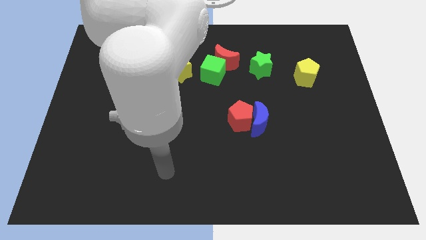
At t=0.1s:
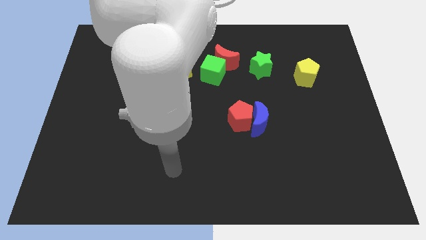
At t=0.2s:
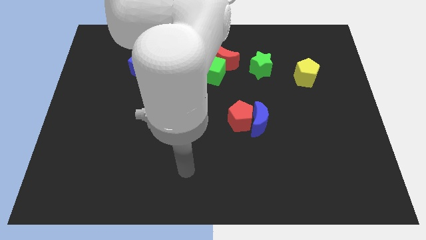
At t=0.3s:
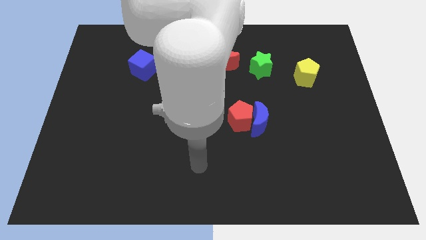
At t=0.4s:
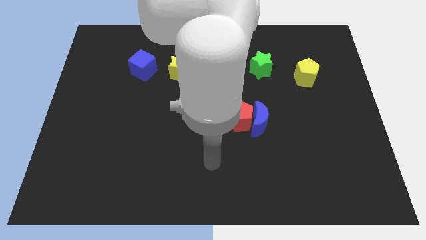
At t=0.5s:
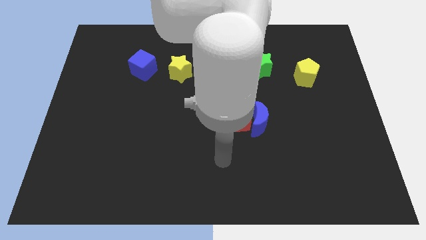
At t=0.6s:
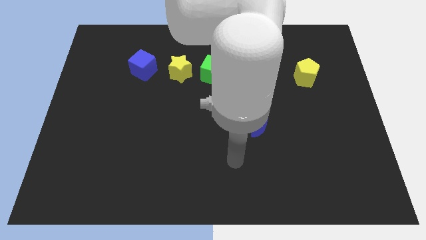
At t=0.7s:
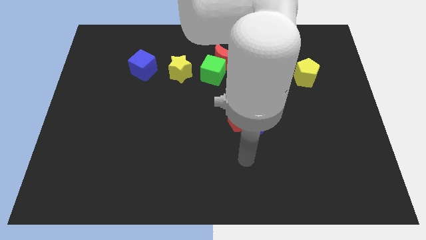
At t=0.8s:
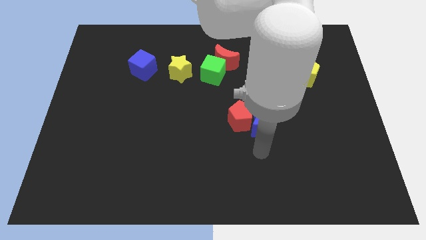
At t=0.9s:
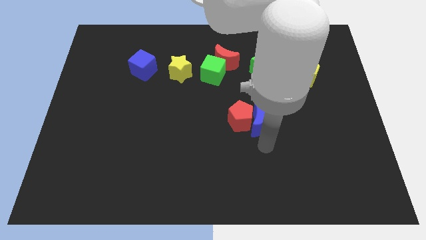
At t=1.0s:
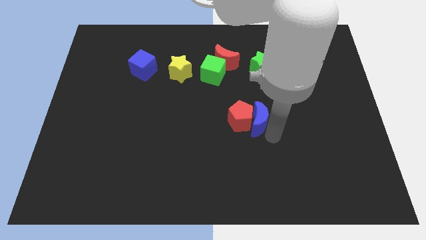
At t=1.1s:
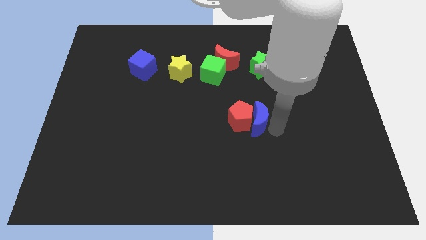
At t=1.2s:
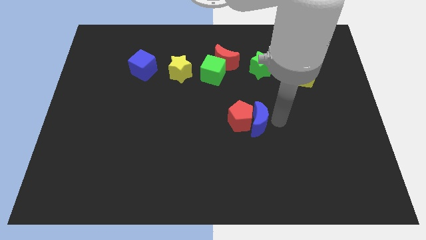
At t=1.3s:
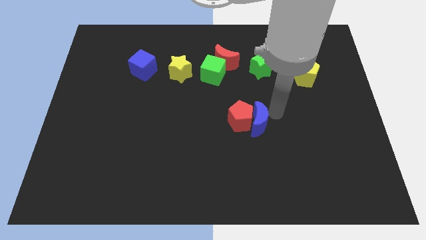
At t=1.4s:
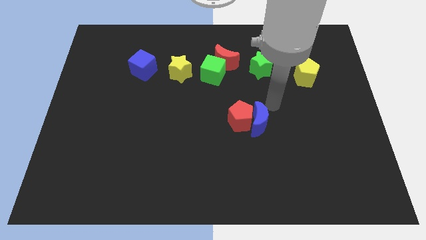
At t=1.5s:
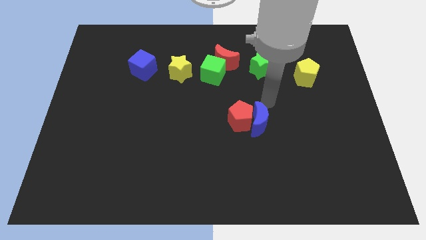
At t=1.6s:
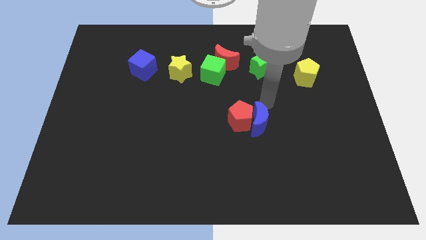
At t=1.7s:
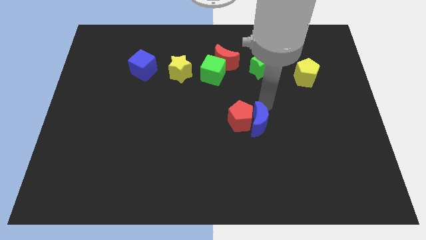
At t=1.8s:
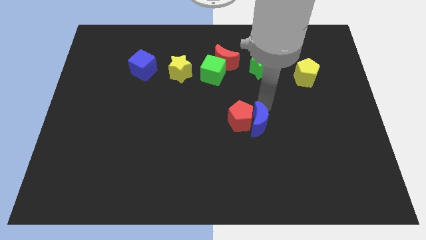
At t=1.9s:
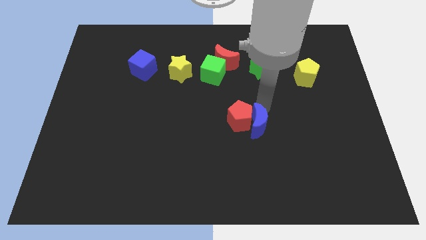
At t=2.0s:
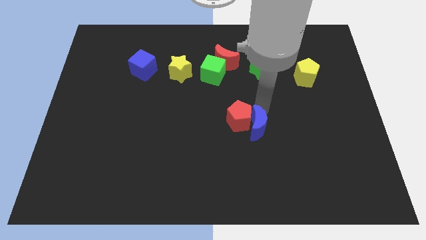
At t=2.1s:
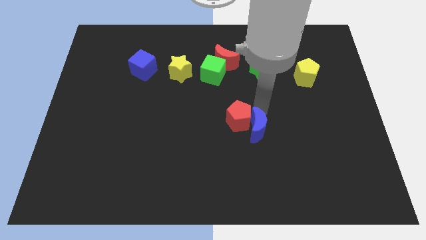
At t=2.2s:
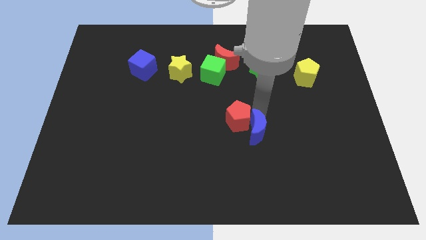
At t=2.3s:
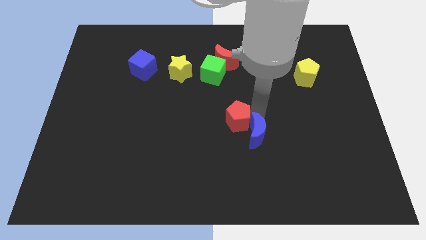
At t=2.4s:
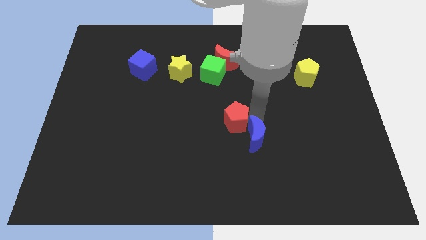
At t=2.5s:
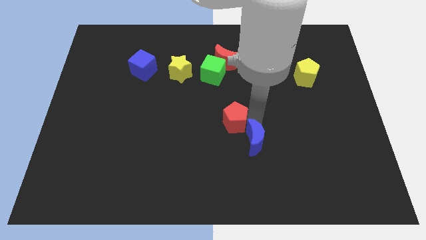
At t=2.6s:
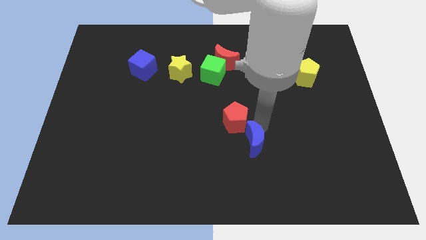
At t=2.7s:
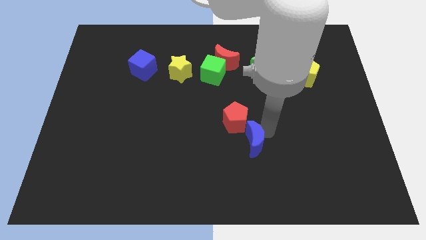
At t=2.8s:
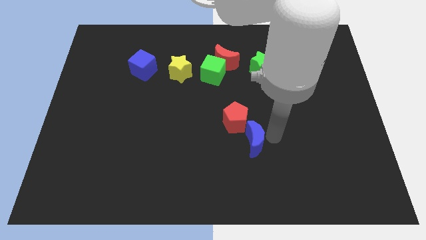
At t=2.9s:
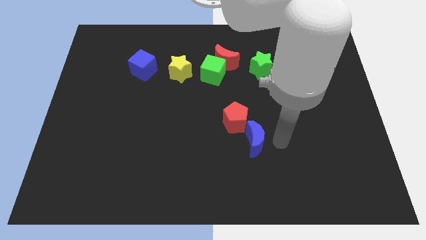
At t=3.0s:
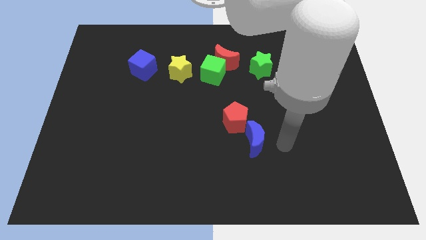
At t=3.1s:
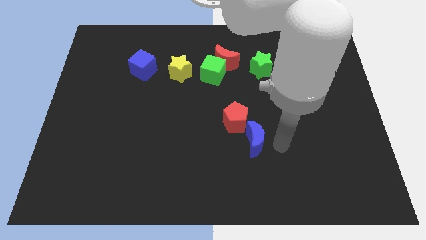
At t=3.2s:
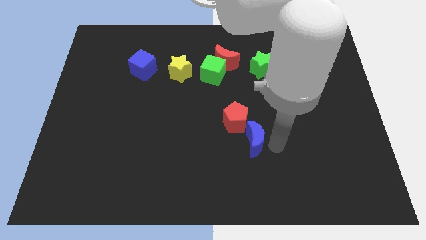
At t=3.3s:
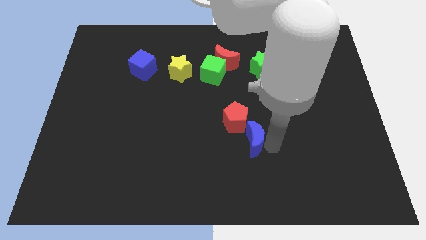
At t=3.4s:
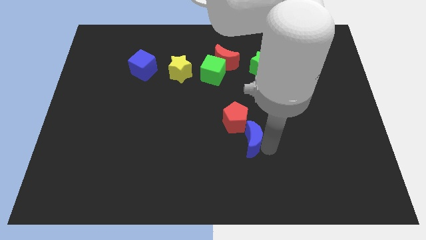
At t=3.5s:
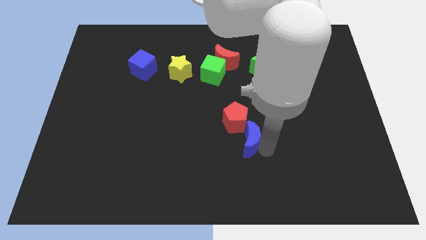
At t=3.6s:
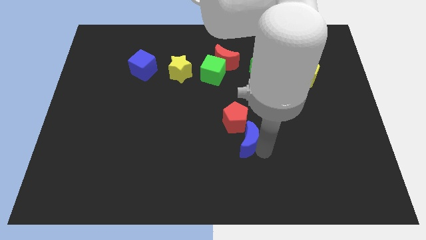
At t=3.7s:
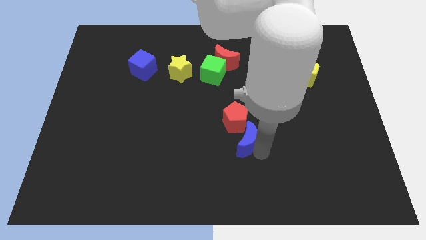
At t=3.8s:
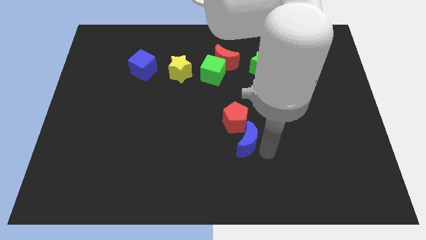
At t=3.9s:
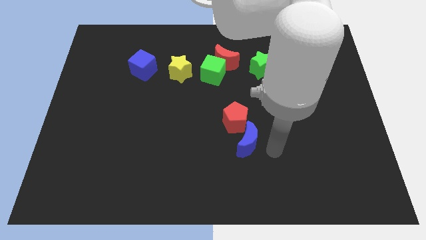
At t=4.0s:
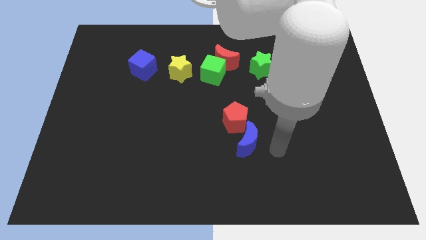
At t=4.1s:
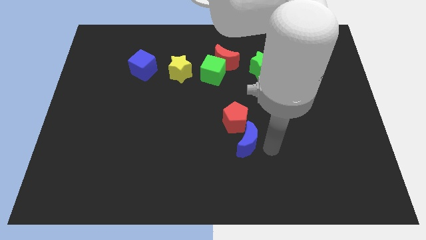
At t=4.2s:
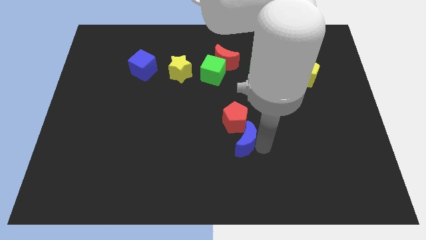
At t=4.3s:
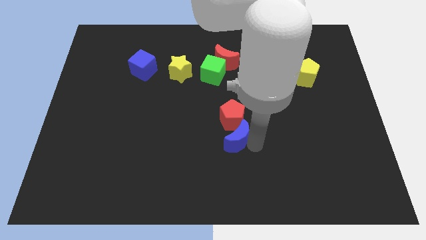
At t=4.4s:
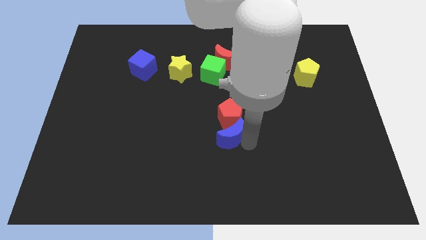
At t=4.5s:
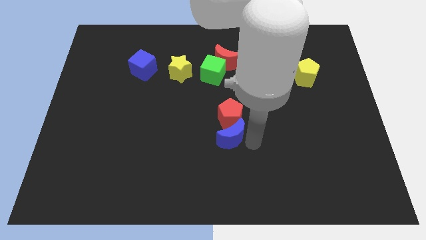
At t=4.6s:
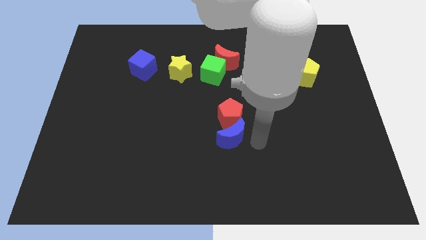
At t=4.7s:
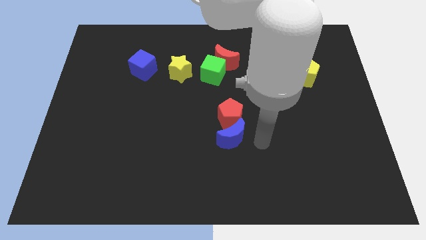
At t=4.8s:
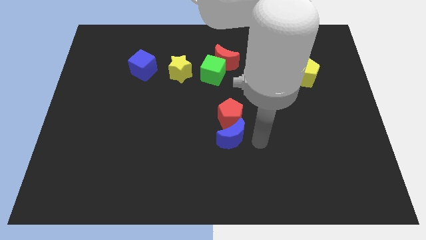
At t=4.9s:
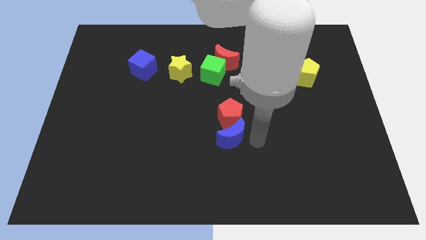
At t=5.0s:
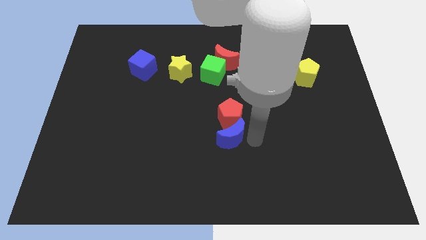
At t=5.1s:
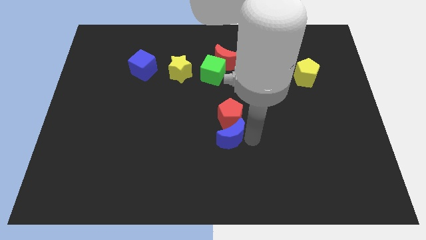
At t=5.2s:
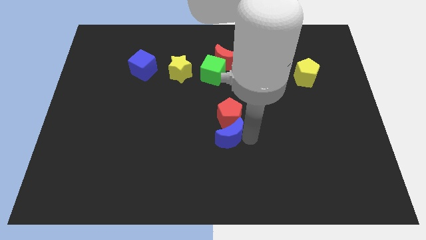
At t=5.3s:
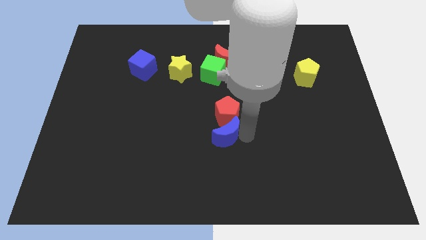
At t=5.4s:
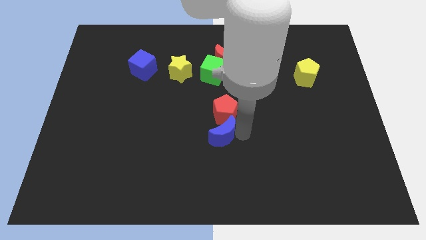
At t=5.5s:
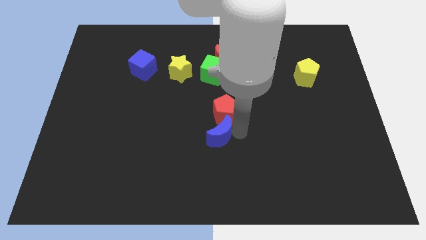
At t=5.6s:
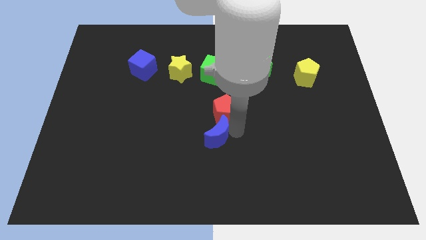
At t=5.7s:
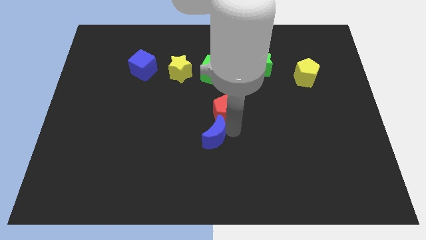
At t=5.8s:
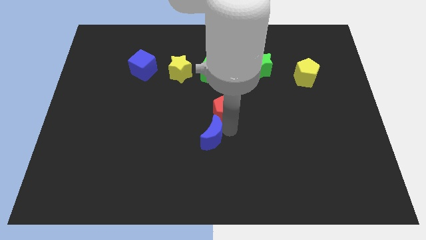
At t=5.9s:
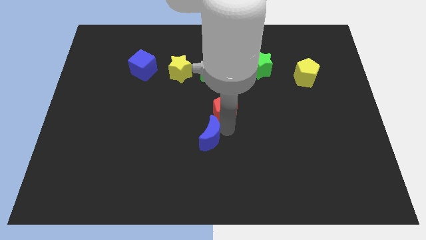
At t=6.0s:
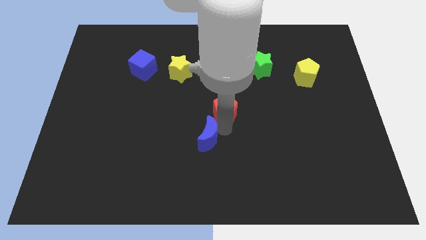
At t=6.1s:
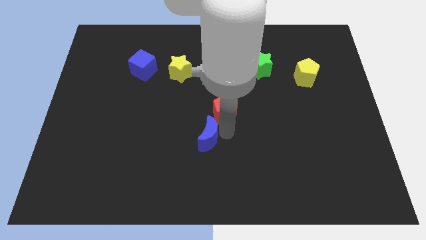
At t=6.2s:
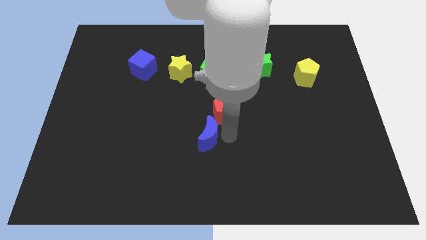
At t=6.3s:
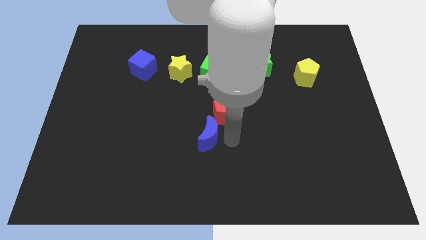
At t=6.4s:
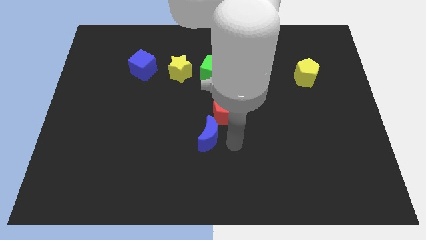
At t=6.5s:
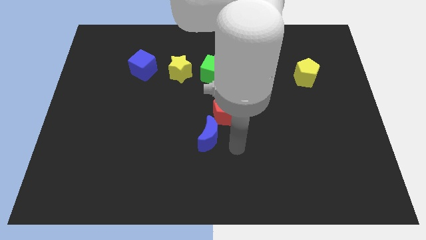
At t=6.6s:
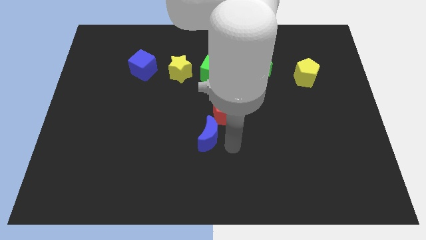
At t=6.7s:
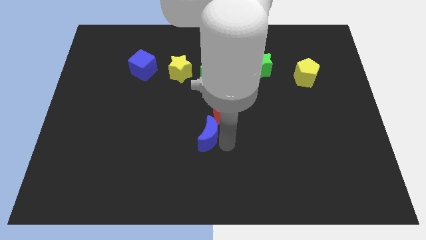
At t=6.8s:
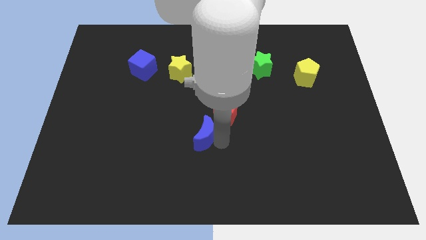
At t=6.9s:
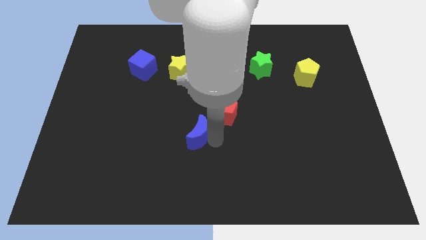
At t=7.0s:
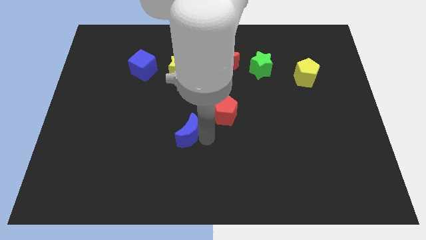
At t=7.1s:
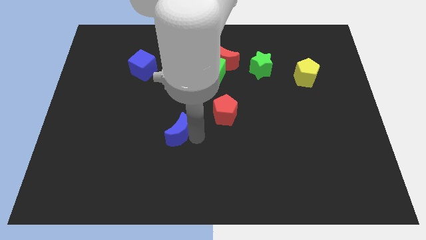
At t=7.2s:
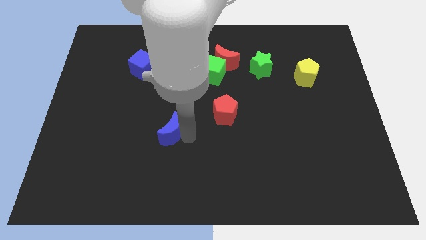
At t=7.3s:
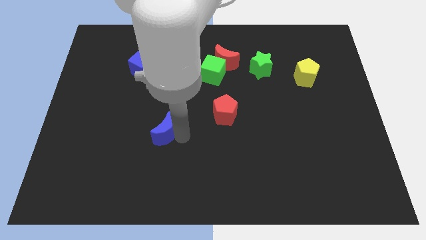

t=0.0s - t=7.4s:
push the blue moon left

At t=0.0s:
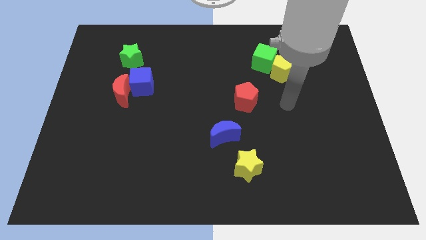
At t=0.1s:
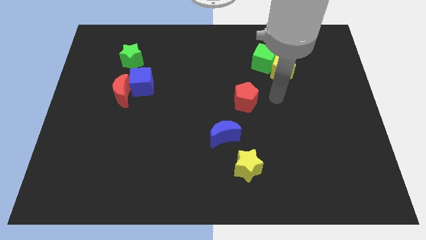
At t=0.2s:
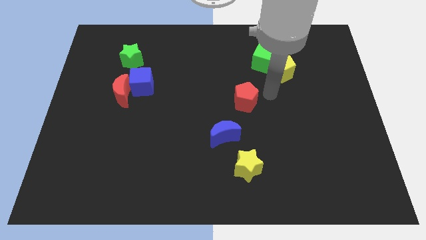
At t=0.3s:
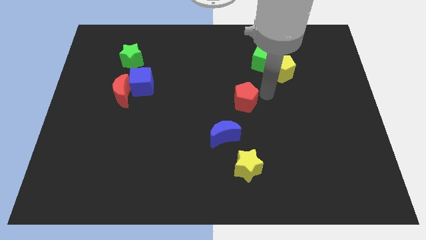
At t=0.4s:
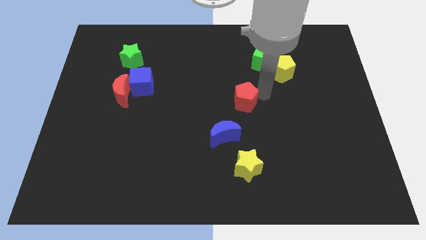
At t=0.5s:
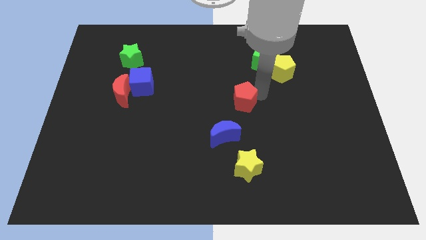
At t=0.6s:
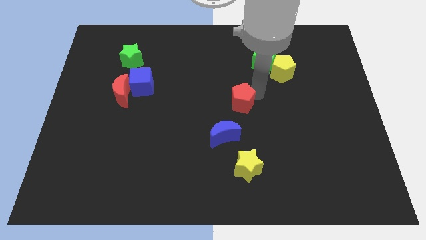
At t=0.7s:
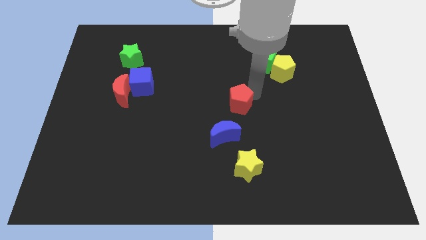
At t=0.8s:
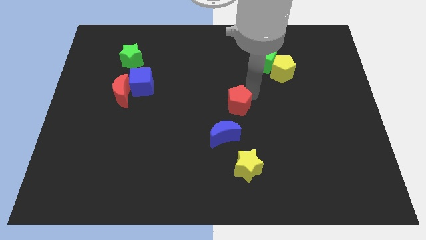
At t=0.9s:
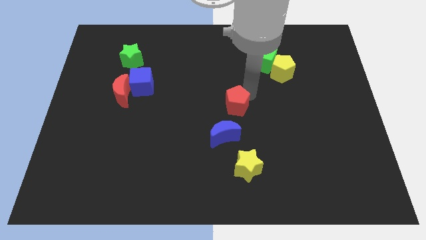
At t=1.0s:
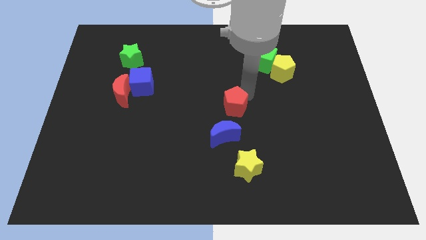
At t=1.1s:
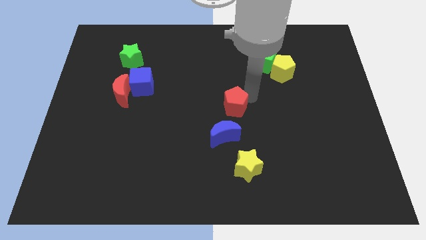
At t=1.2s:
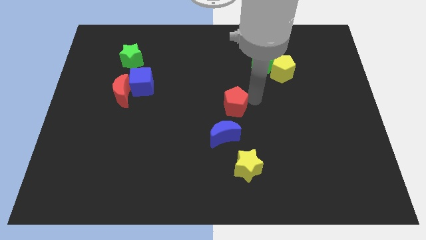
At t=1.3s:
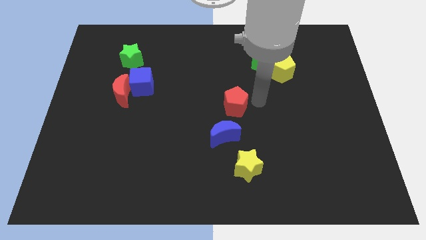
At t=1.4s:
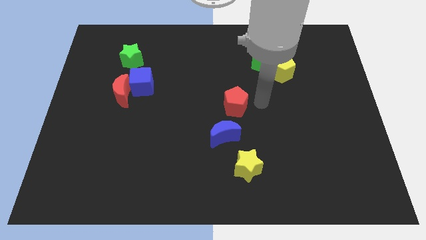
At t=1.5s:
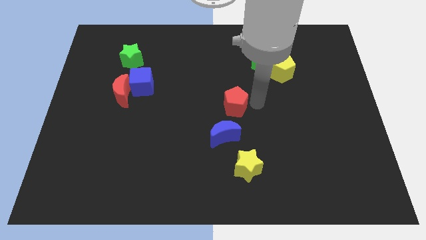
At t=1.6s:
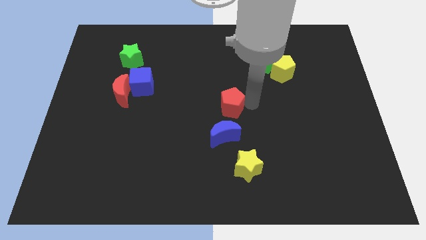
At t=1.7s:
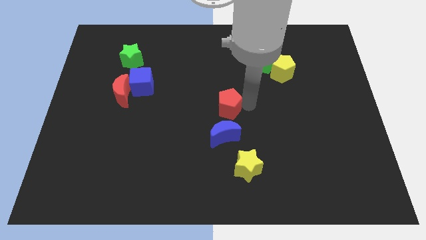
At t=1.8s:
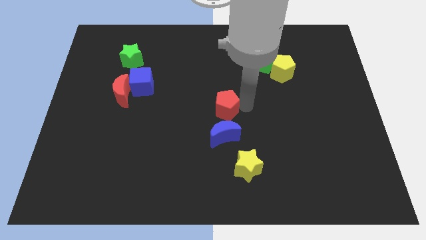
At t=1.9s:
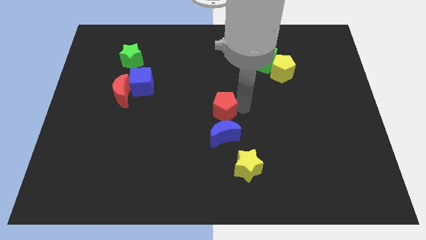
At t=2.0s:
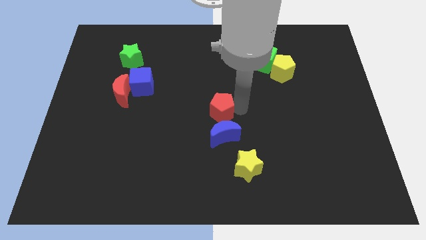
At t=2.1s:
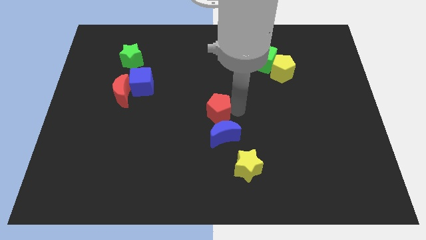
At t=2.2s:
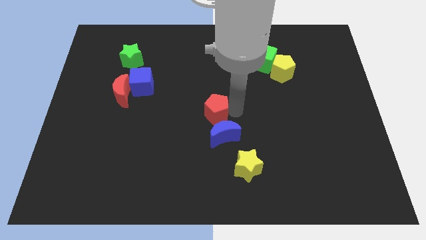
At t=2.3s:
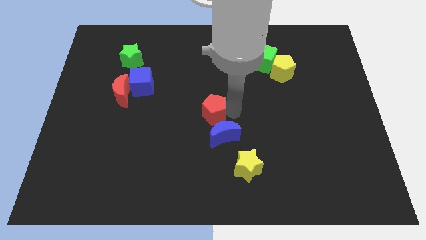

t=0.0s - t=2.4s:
slightly push the red pentagon left
